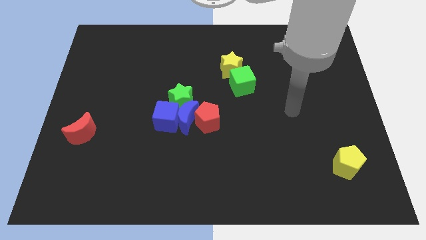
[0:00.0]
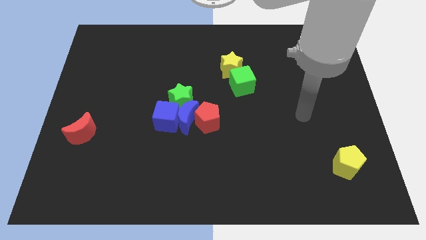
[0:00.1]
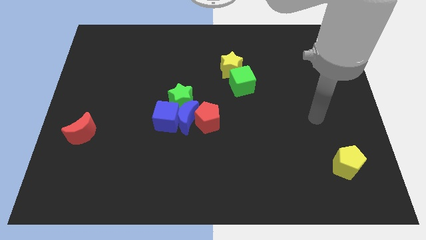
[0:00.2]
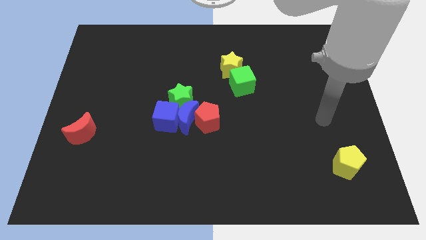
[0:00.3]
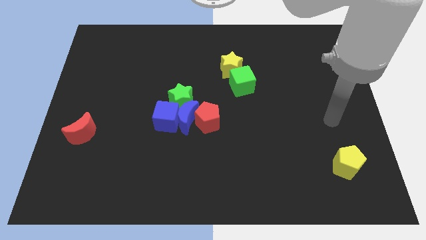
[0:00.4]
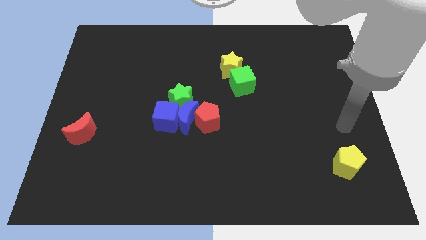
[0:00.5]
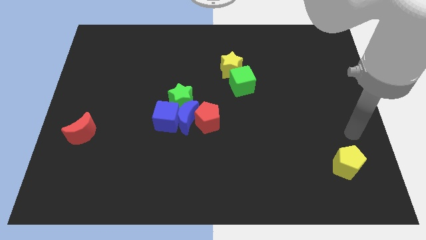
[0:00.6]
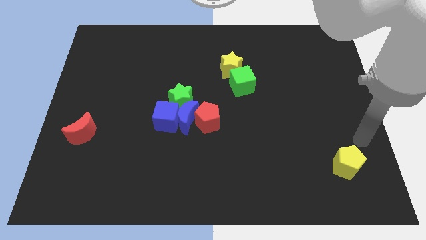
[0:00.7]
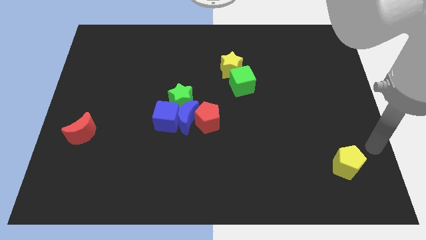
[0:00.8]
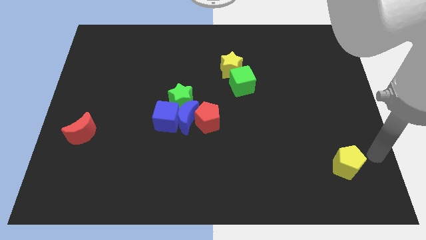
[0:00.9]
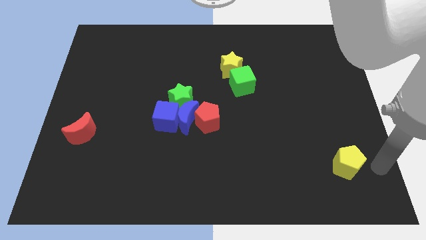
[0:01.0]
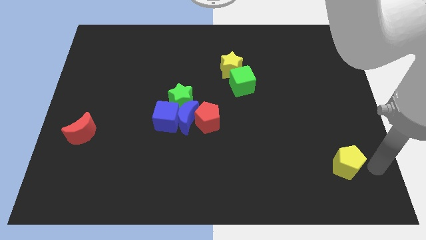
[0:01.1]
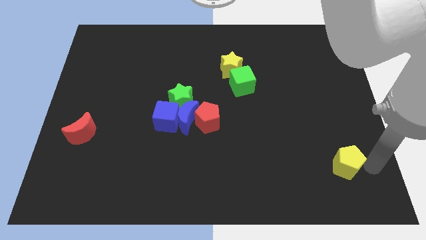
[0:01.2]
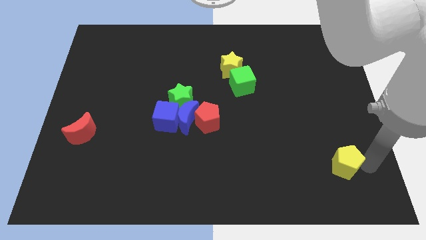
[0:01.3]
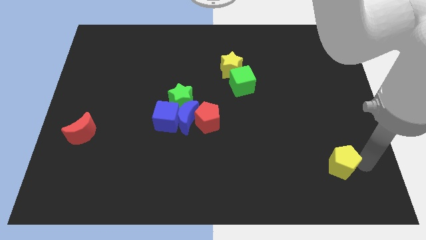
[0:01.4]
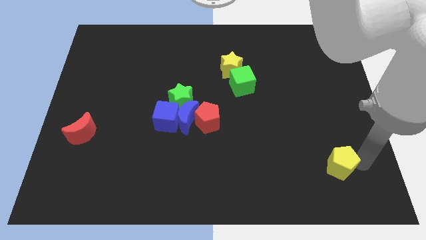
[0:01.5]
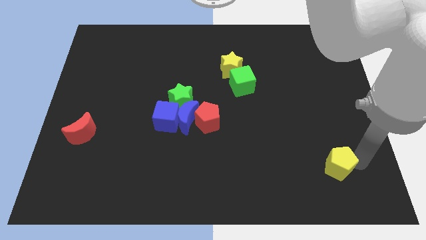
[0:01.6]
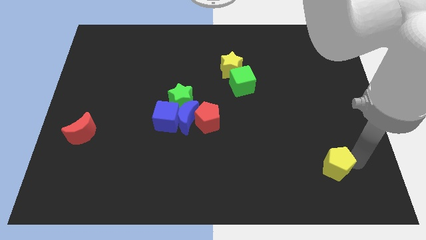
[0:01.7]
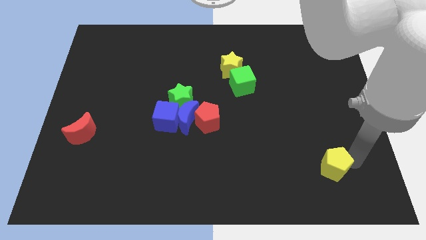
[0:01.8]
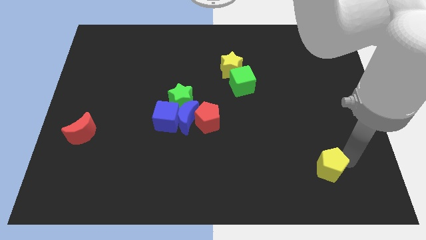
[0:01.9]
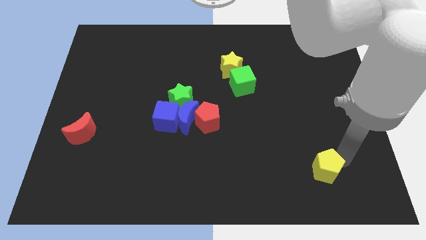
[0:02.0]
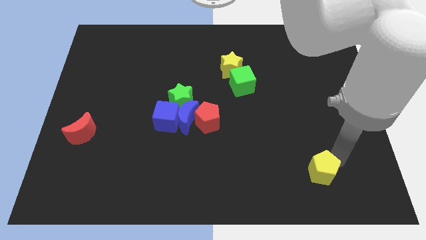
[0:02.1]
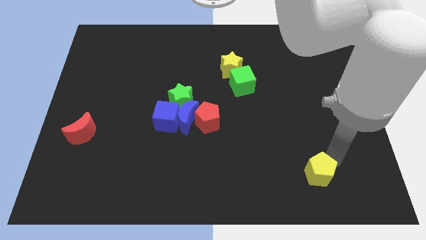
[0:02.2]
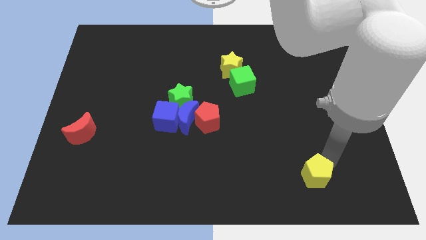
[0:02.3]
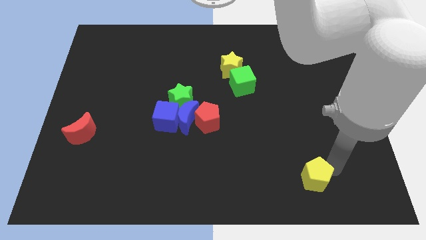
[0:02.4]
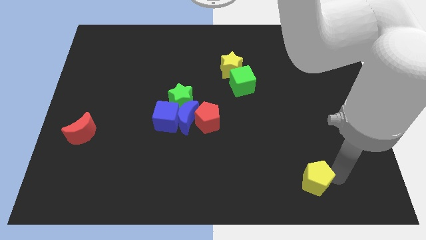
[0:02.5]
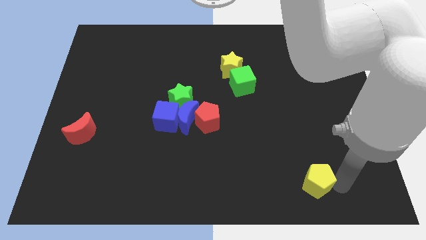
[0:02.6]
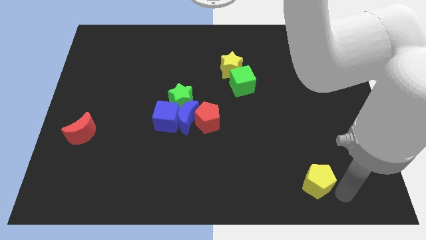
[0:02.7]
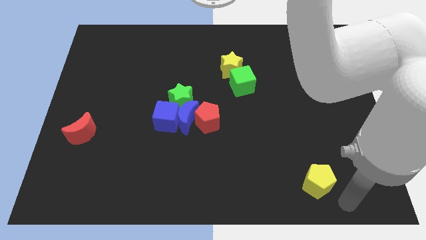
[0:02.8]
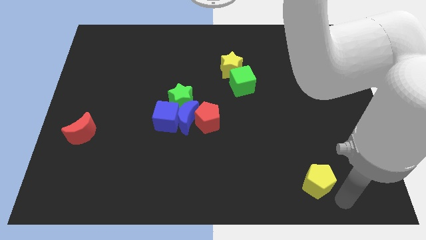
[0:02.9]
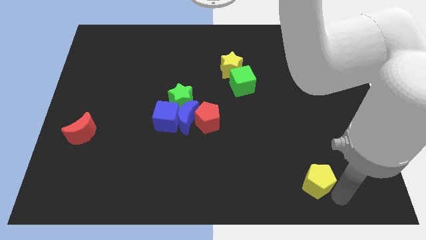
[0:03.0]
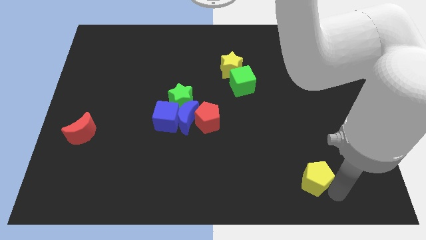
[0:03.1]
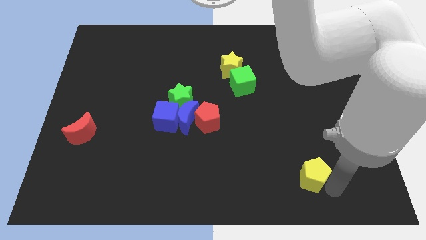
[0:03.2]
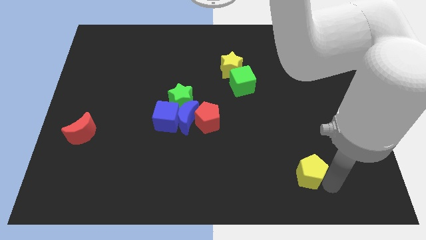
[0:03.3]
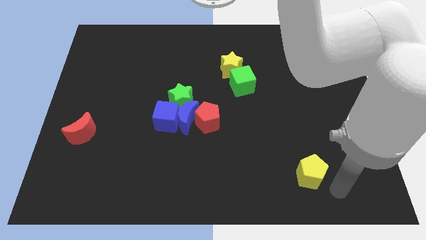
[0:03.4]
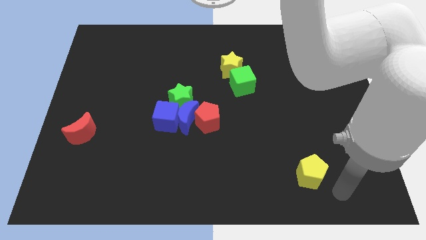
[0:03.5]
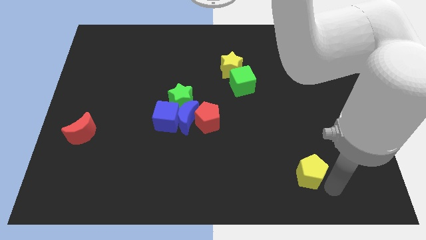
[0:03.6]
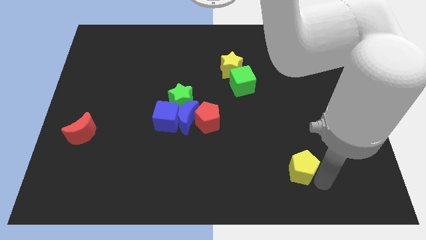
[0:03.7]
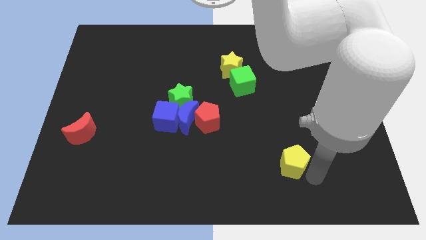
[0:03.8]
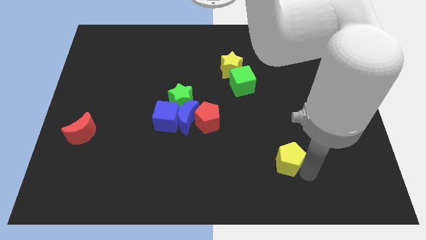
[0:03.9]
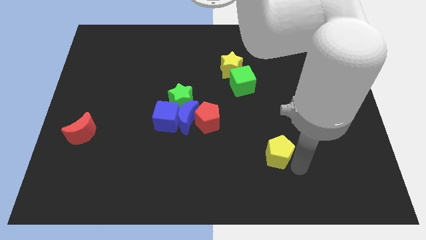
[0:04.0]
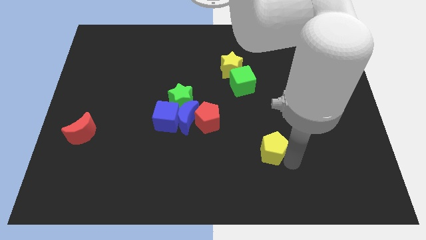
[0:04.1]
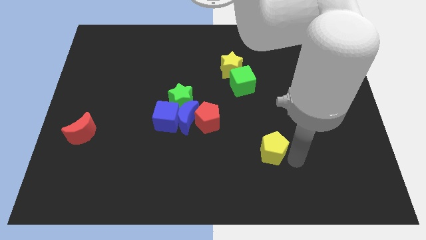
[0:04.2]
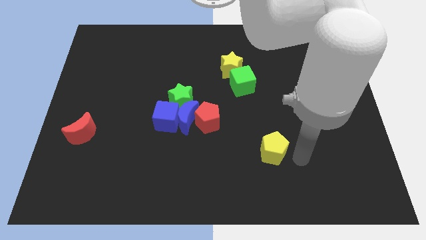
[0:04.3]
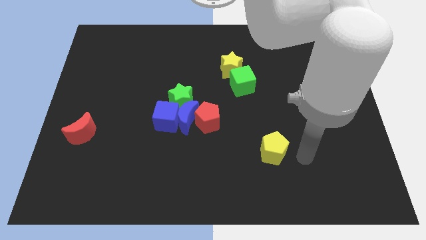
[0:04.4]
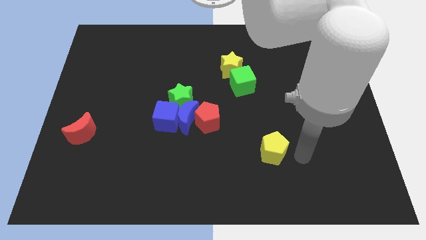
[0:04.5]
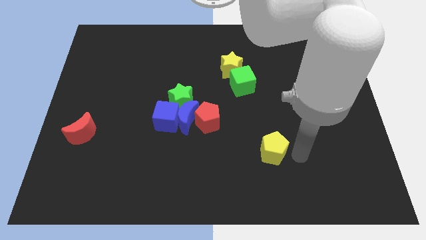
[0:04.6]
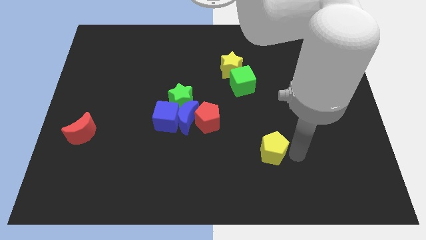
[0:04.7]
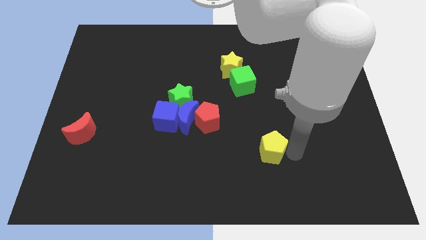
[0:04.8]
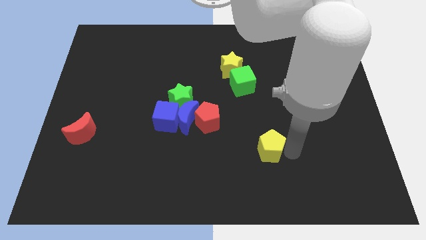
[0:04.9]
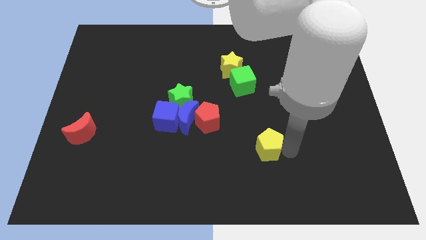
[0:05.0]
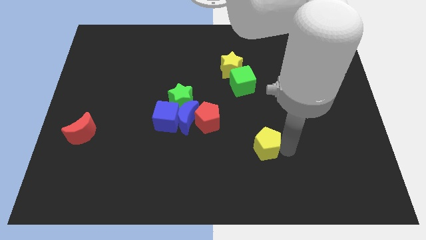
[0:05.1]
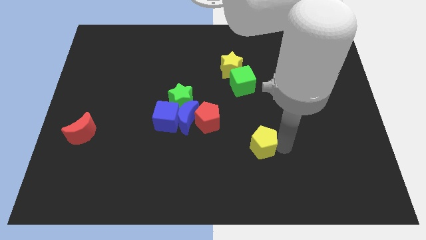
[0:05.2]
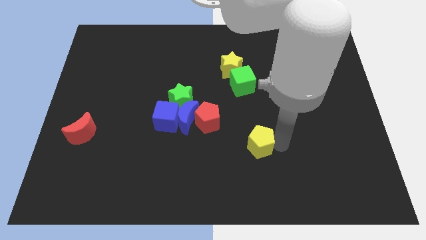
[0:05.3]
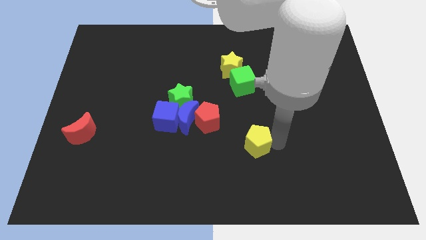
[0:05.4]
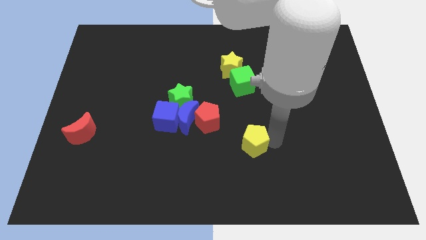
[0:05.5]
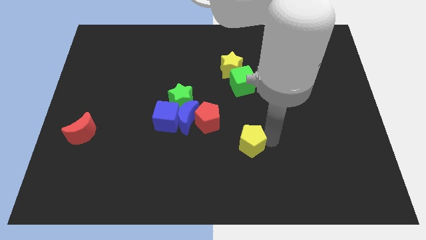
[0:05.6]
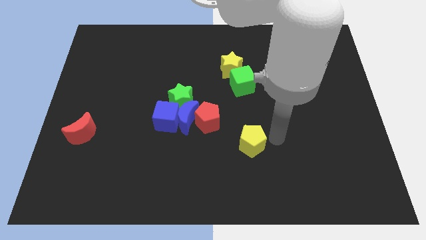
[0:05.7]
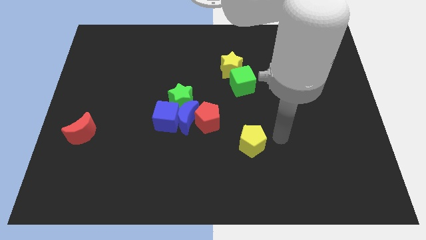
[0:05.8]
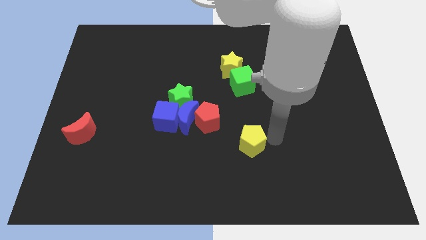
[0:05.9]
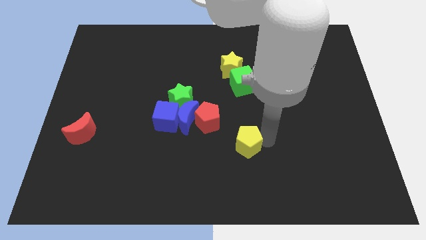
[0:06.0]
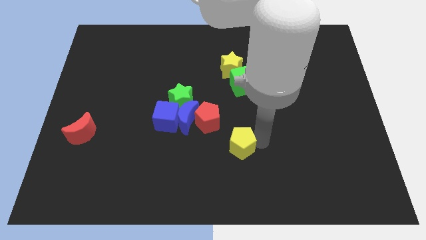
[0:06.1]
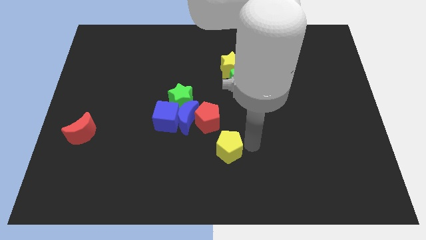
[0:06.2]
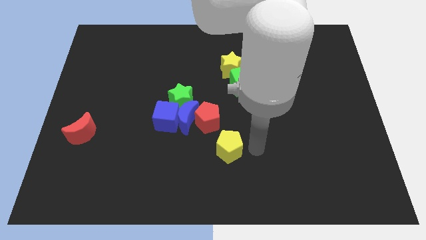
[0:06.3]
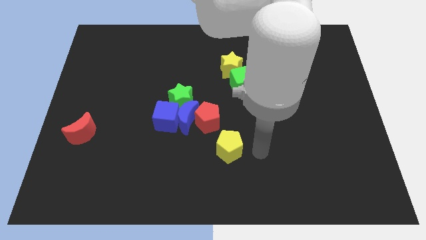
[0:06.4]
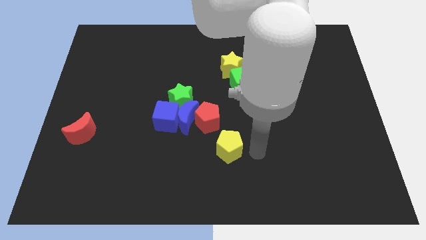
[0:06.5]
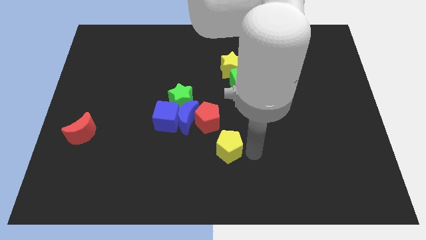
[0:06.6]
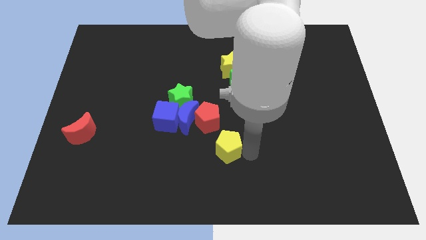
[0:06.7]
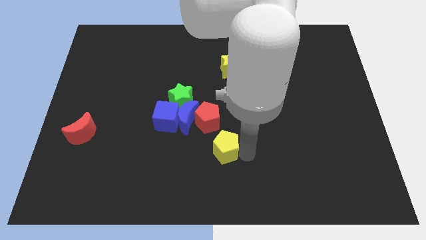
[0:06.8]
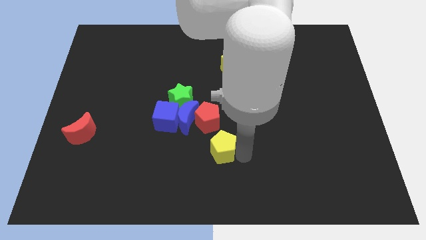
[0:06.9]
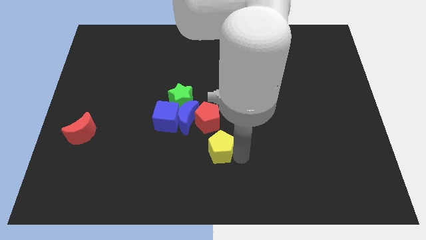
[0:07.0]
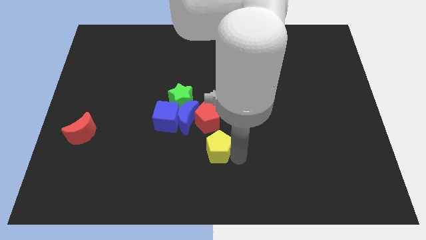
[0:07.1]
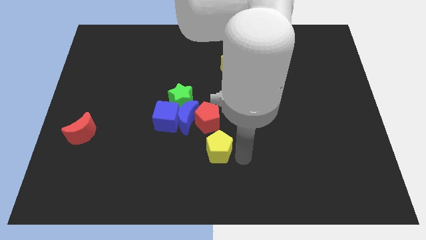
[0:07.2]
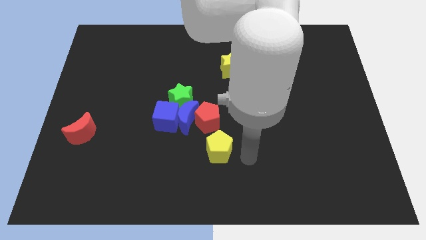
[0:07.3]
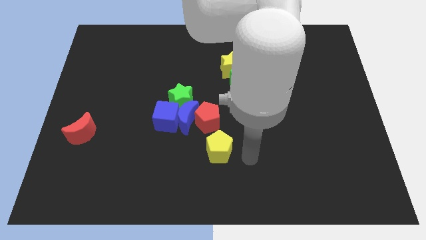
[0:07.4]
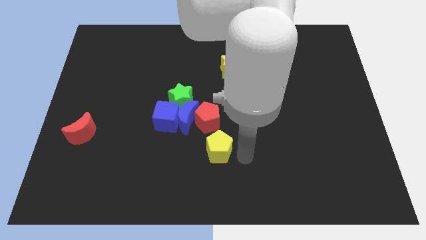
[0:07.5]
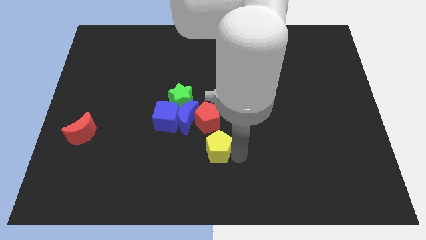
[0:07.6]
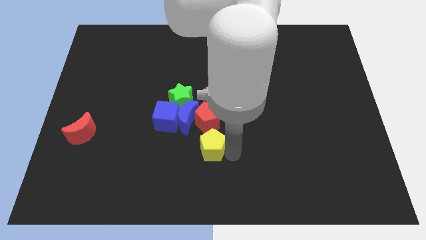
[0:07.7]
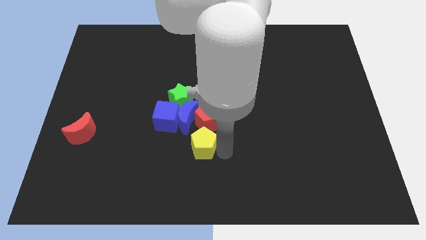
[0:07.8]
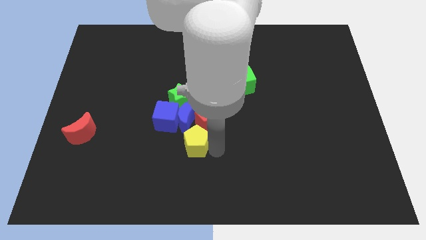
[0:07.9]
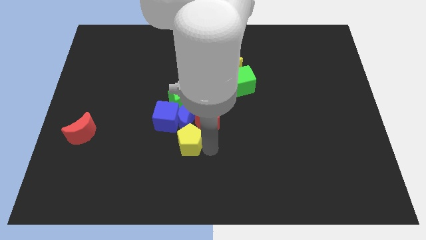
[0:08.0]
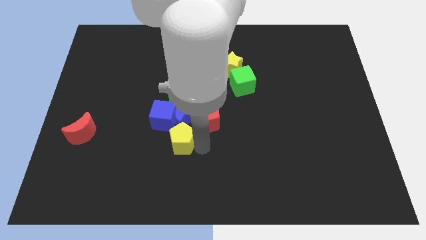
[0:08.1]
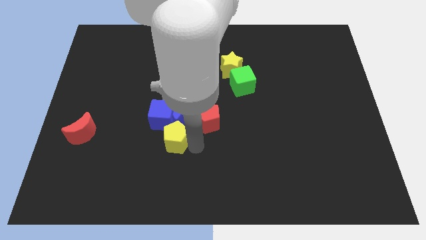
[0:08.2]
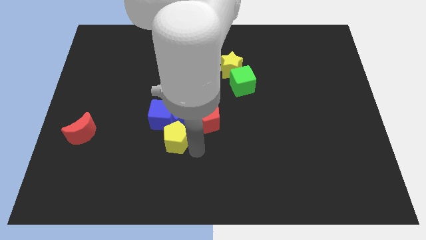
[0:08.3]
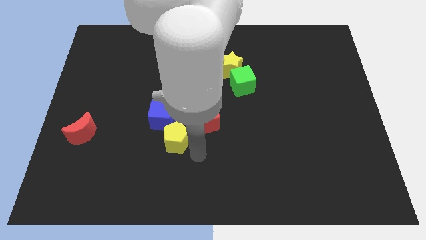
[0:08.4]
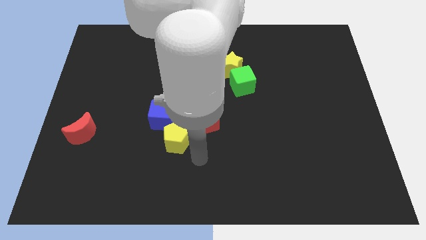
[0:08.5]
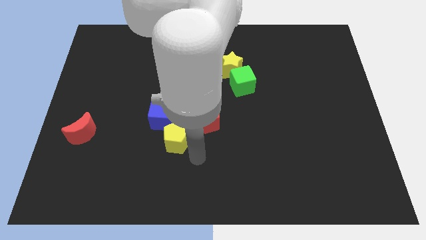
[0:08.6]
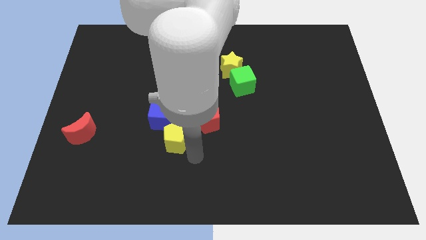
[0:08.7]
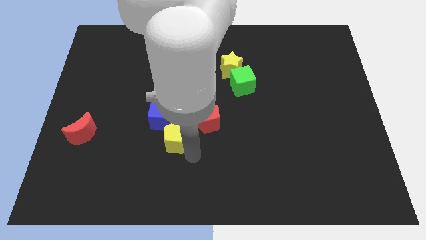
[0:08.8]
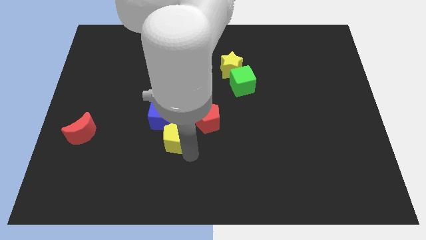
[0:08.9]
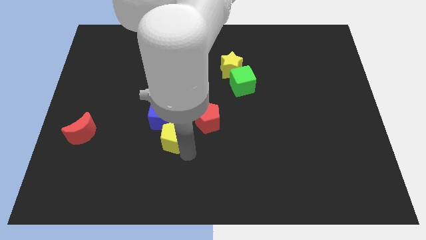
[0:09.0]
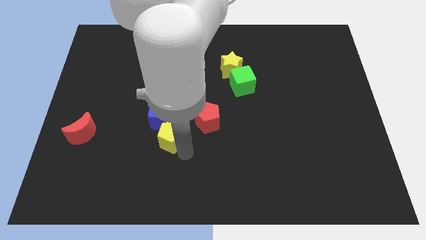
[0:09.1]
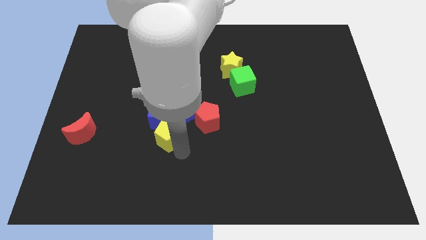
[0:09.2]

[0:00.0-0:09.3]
slide the yellow pentagon to the blue cube
